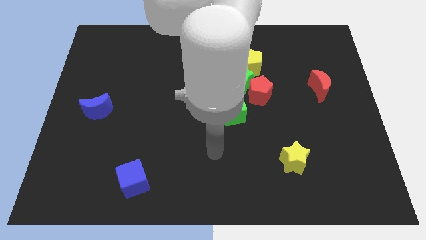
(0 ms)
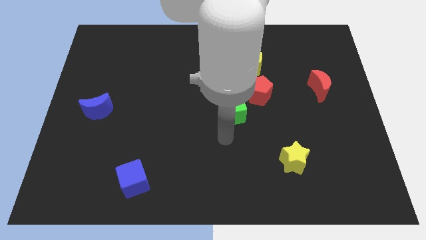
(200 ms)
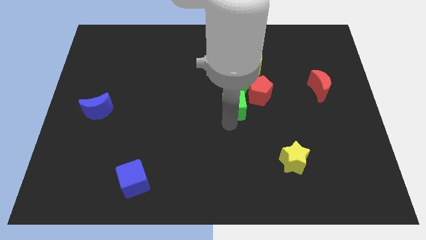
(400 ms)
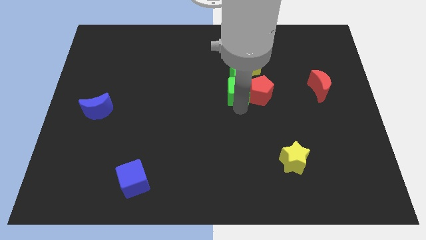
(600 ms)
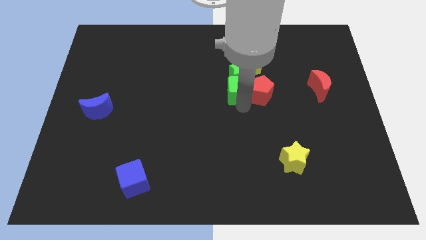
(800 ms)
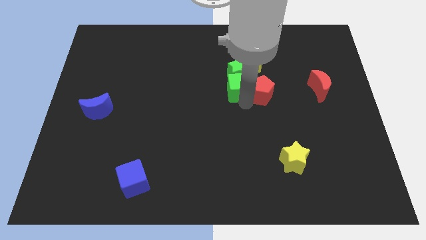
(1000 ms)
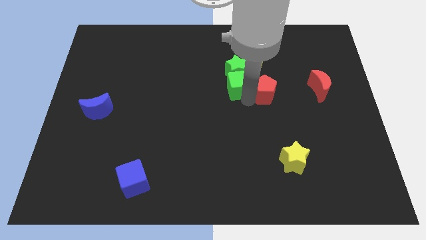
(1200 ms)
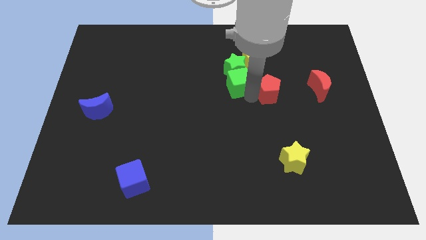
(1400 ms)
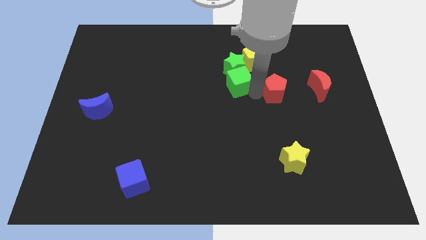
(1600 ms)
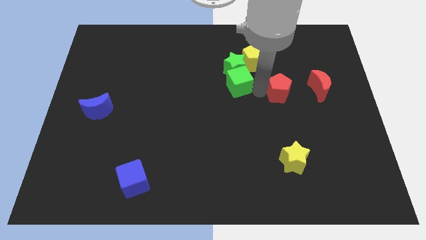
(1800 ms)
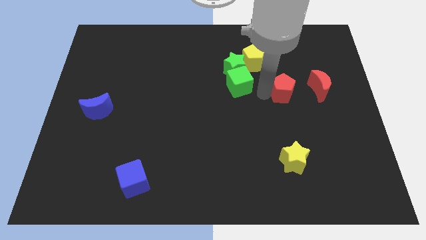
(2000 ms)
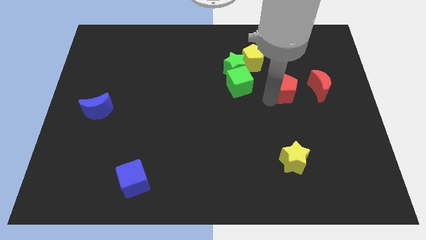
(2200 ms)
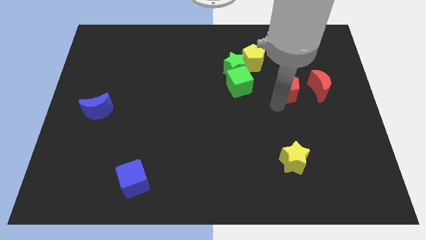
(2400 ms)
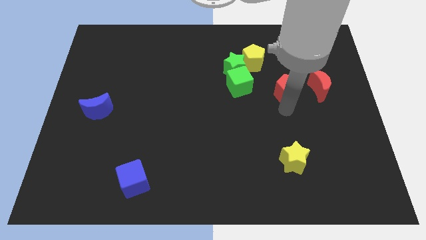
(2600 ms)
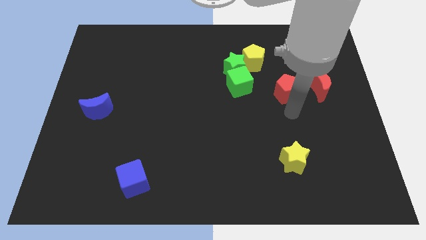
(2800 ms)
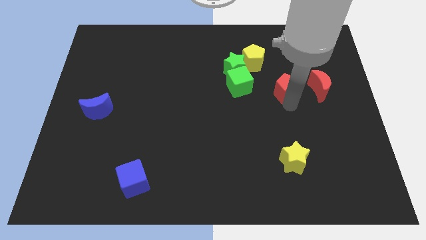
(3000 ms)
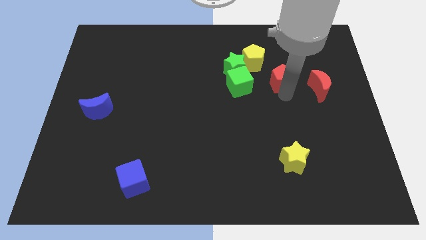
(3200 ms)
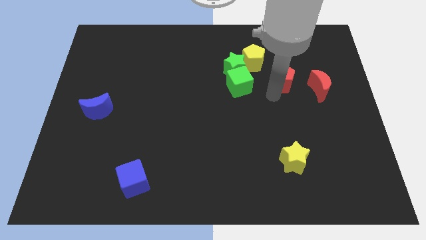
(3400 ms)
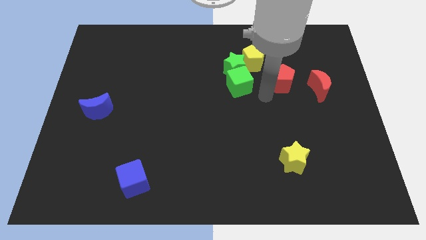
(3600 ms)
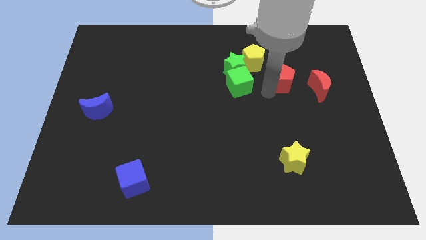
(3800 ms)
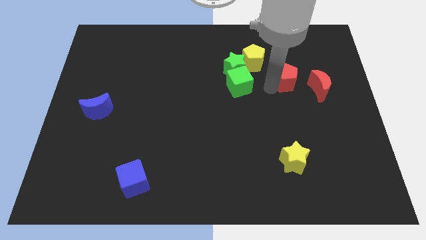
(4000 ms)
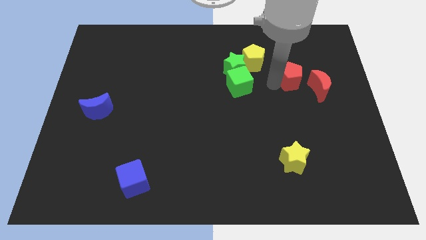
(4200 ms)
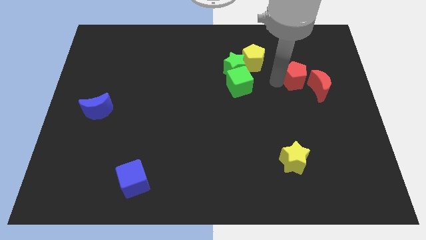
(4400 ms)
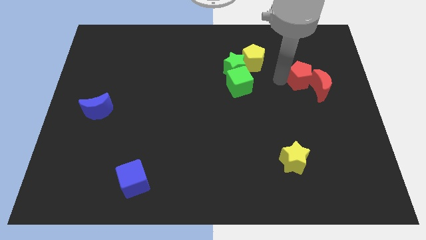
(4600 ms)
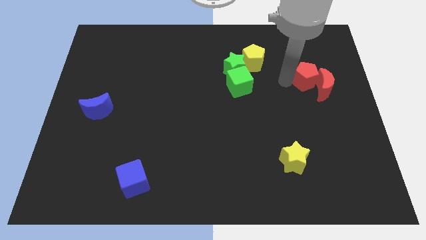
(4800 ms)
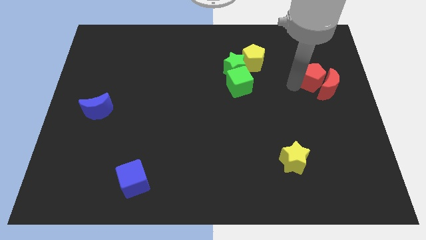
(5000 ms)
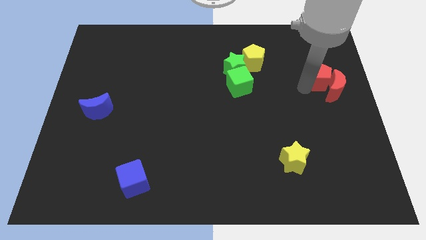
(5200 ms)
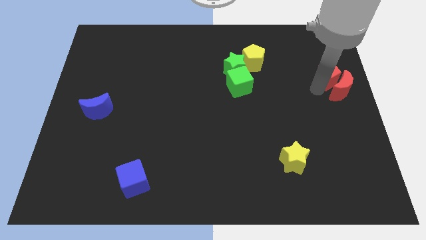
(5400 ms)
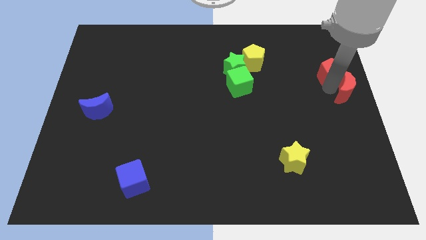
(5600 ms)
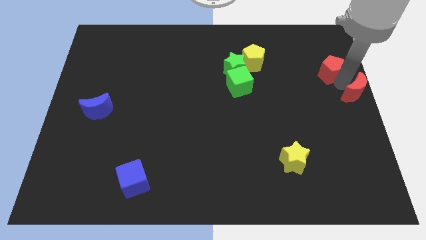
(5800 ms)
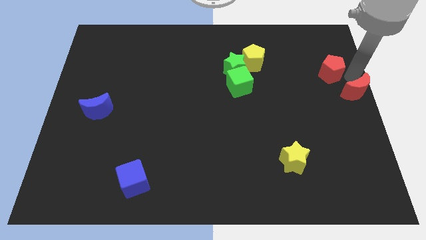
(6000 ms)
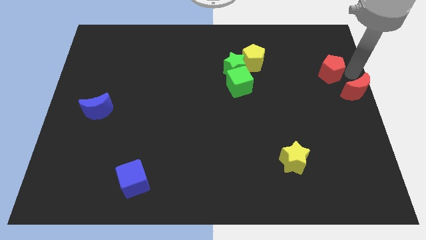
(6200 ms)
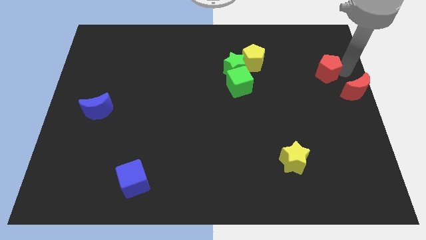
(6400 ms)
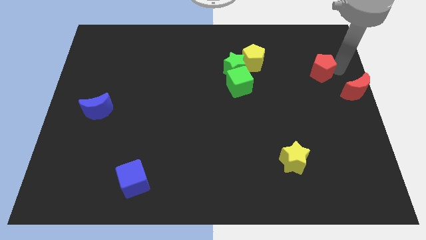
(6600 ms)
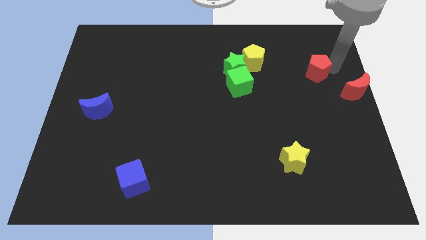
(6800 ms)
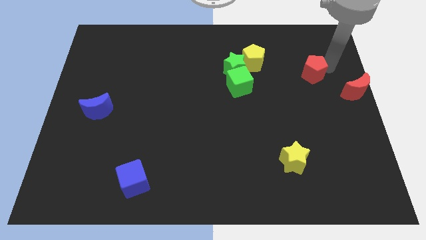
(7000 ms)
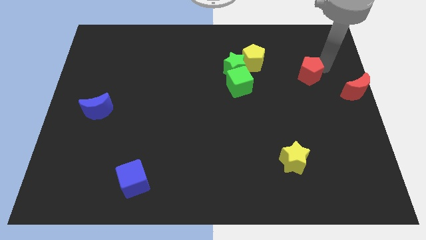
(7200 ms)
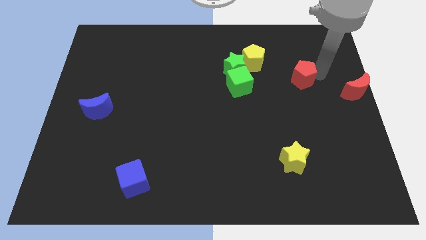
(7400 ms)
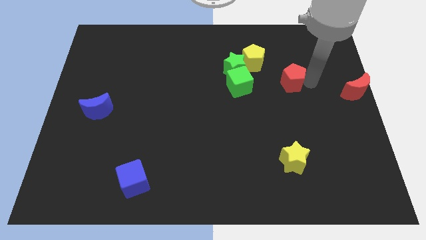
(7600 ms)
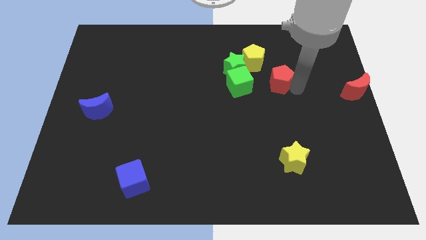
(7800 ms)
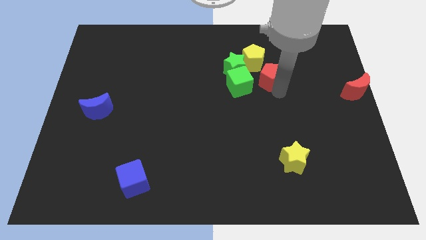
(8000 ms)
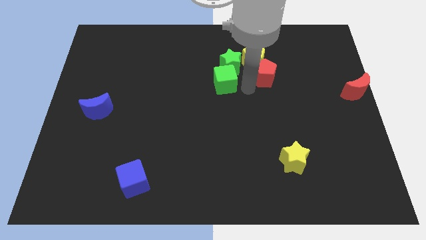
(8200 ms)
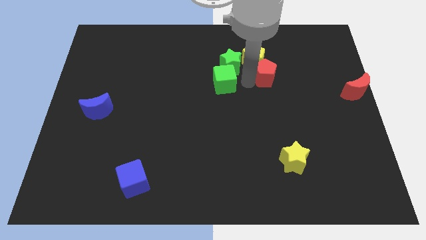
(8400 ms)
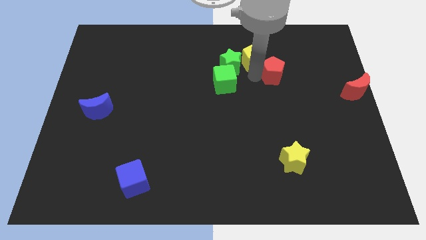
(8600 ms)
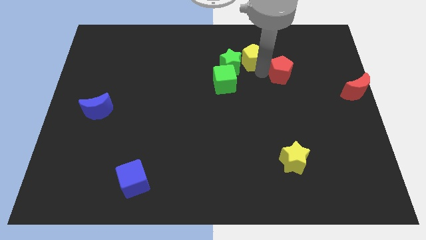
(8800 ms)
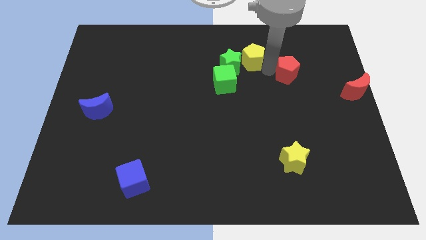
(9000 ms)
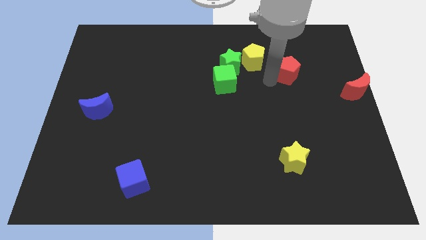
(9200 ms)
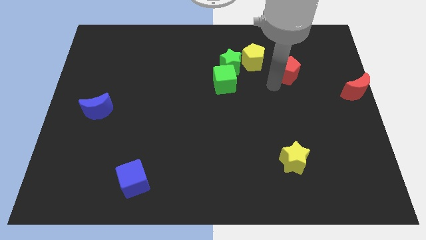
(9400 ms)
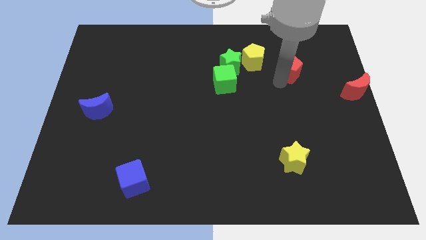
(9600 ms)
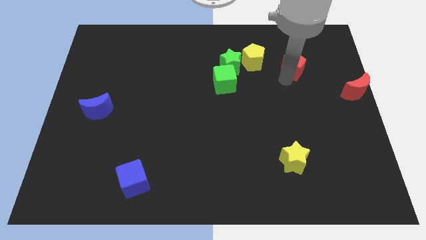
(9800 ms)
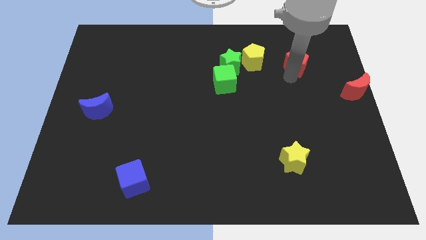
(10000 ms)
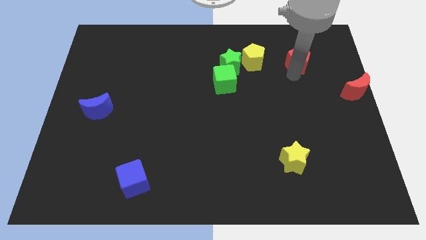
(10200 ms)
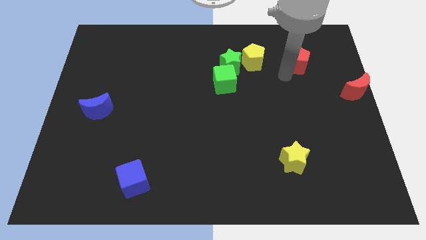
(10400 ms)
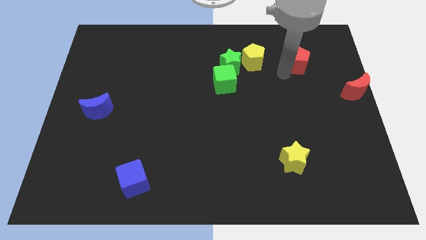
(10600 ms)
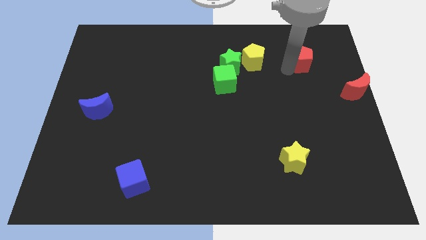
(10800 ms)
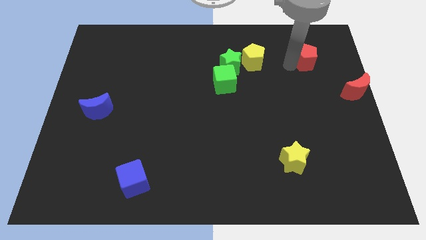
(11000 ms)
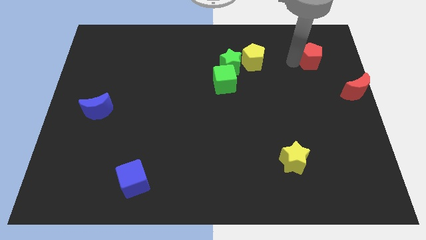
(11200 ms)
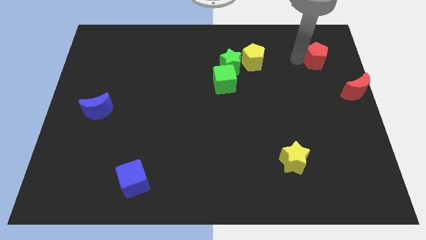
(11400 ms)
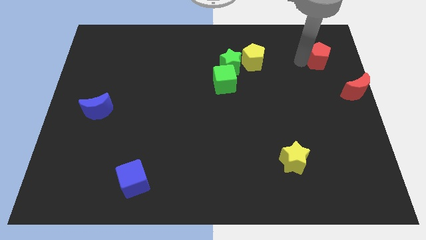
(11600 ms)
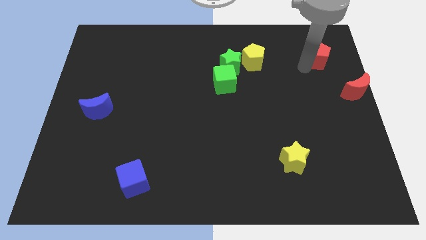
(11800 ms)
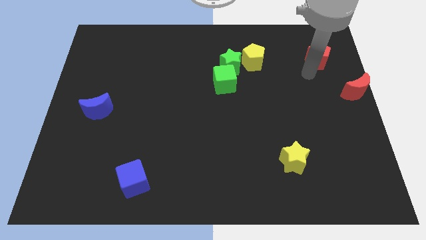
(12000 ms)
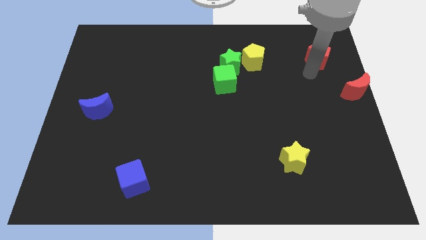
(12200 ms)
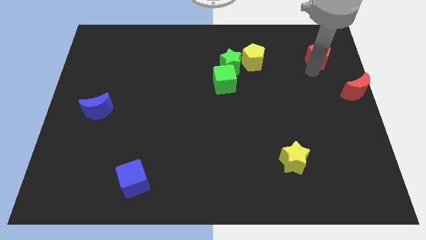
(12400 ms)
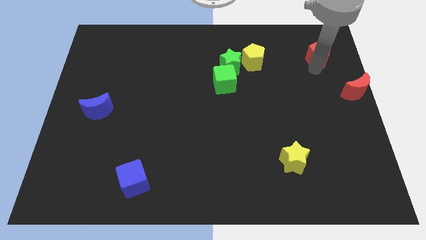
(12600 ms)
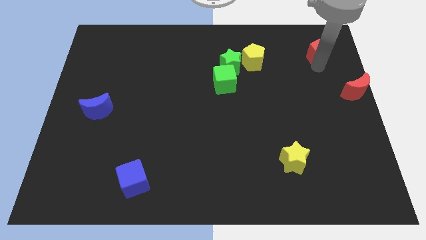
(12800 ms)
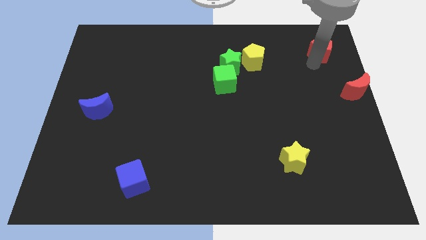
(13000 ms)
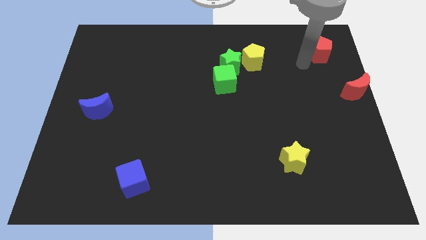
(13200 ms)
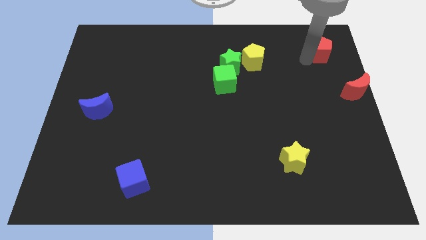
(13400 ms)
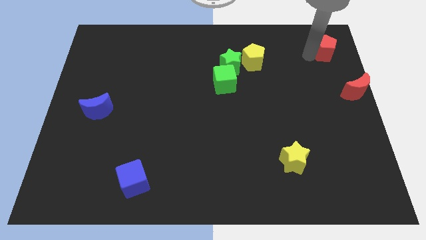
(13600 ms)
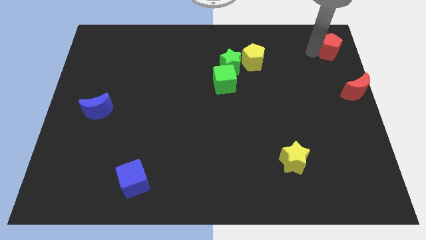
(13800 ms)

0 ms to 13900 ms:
push the red pentagon to the top right of the board
